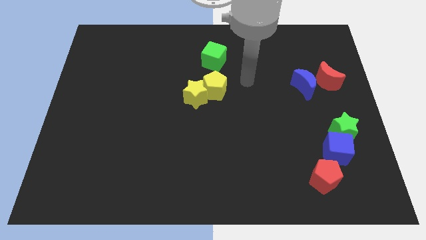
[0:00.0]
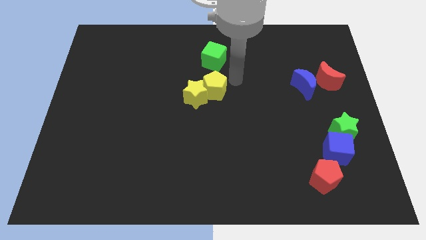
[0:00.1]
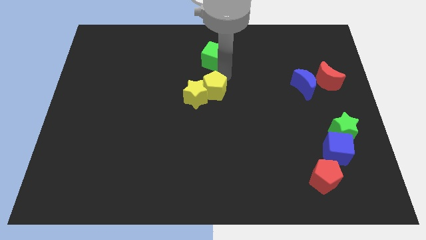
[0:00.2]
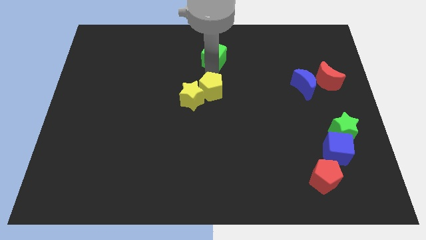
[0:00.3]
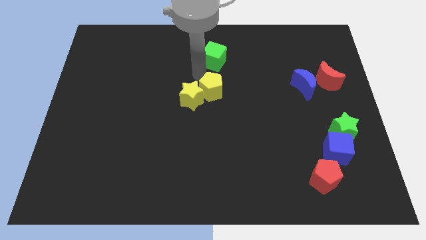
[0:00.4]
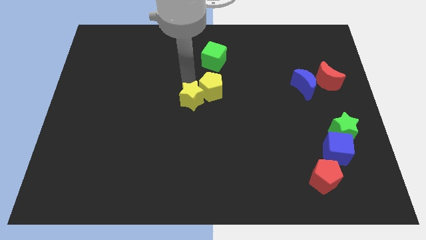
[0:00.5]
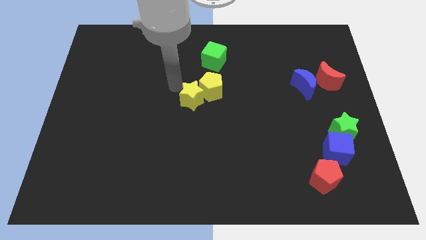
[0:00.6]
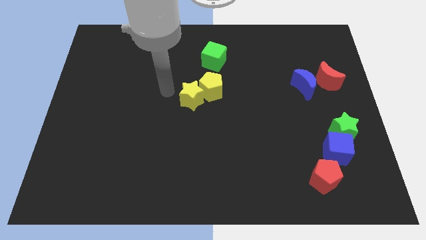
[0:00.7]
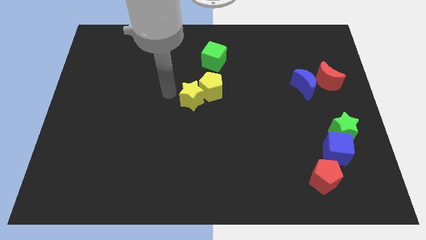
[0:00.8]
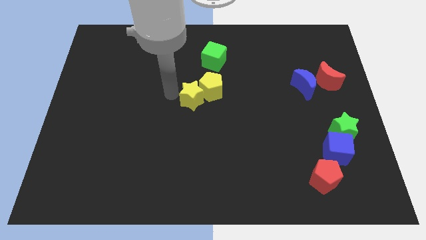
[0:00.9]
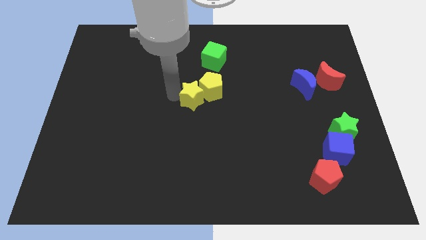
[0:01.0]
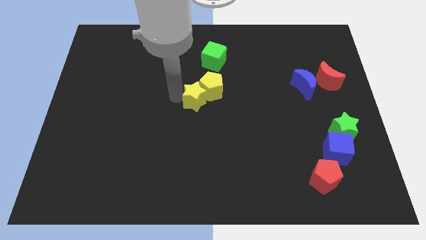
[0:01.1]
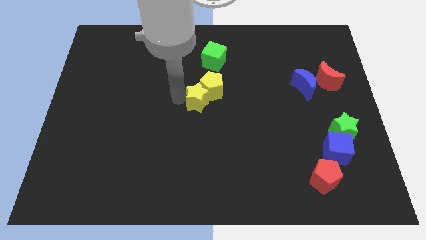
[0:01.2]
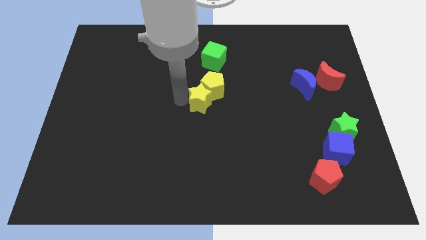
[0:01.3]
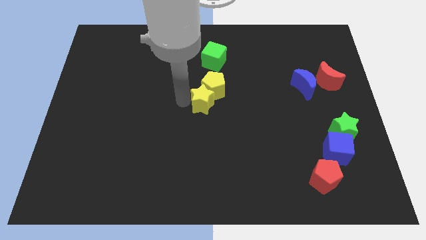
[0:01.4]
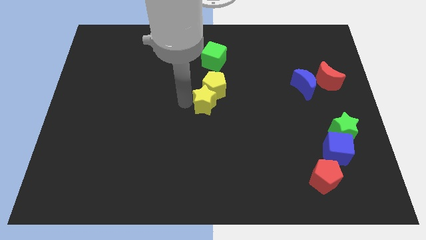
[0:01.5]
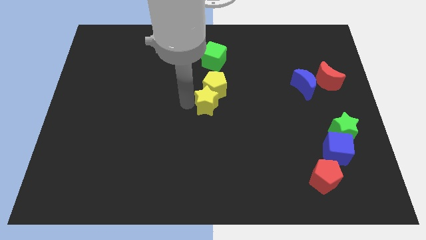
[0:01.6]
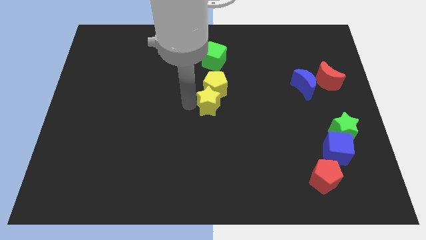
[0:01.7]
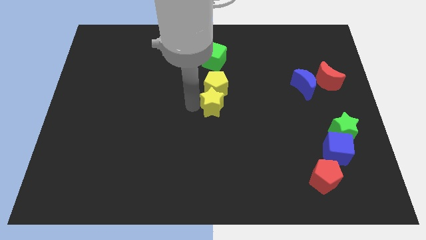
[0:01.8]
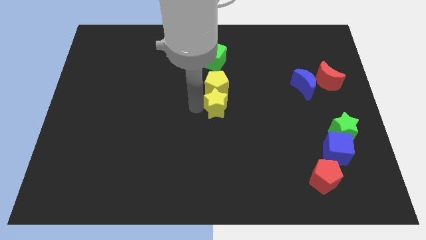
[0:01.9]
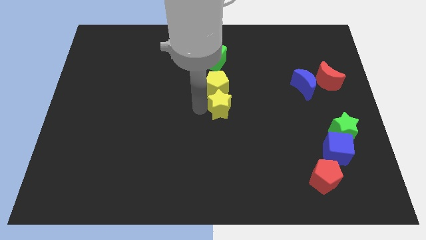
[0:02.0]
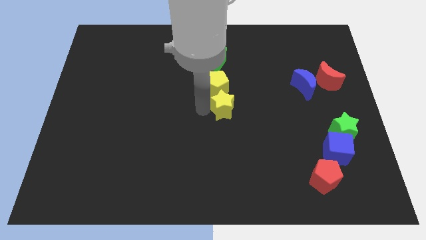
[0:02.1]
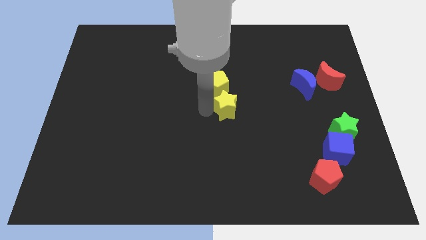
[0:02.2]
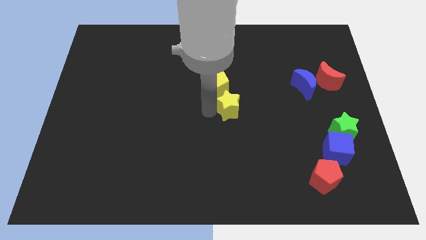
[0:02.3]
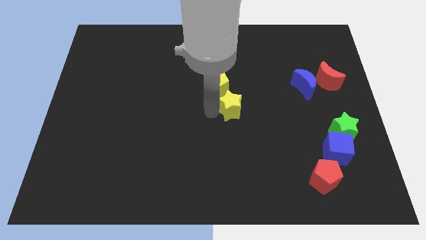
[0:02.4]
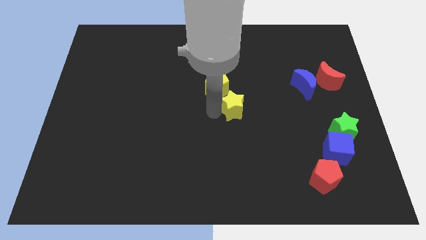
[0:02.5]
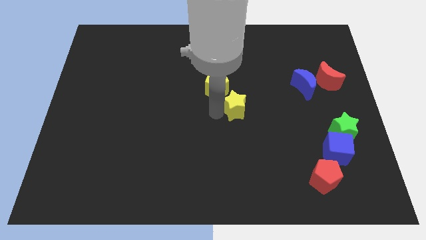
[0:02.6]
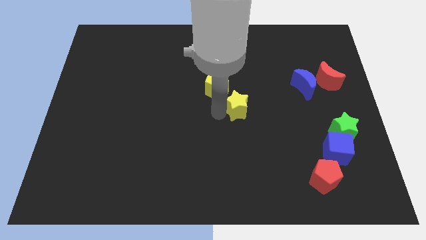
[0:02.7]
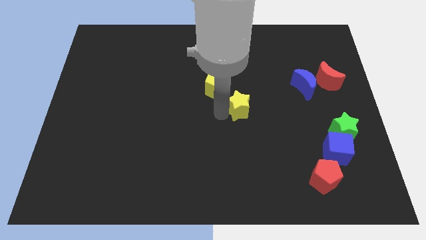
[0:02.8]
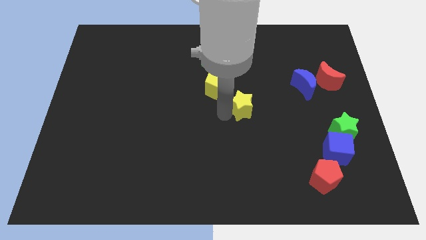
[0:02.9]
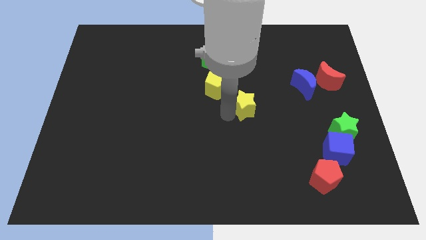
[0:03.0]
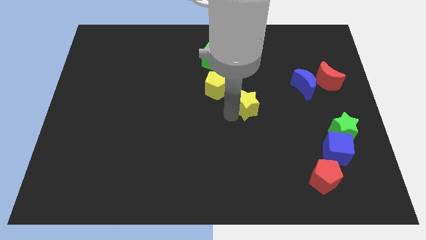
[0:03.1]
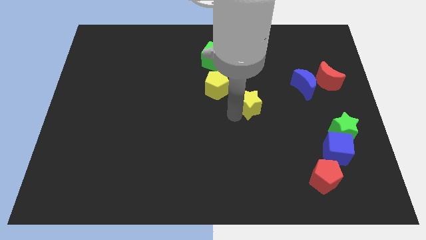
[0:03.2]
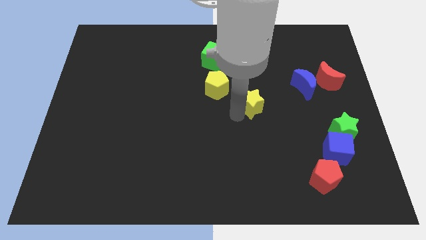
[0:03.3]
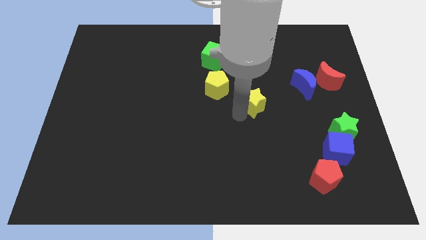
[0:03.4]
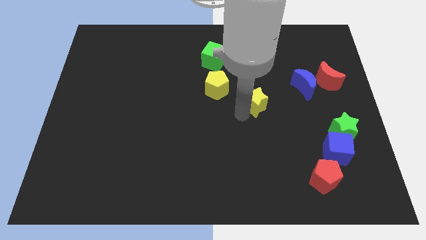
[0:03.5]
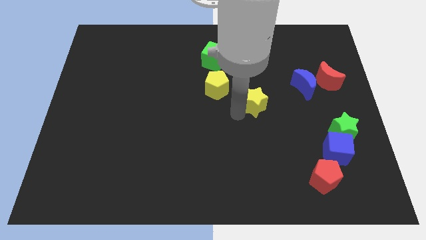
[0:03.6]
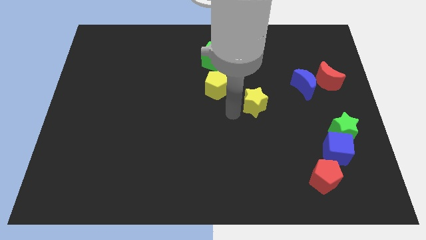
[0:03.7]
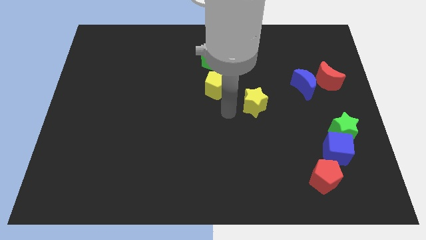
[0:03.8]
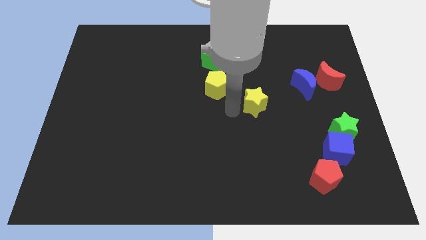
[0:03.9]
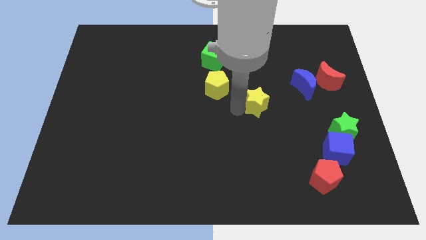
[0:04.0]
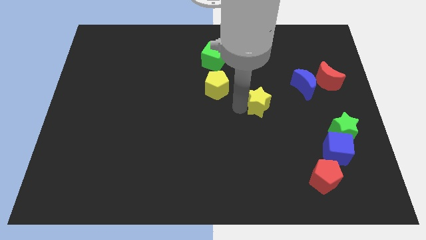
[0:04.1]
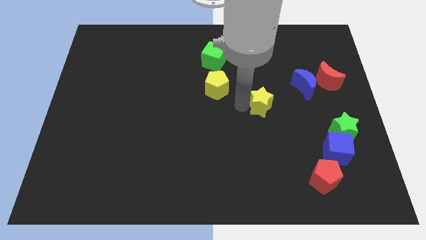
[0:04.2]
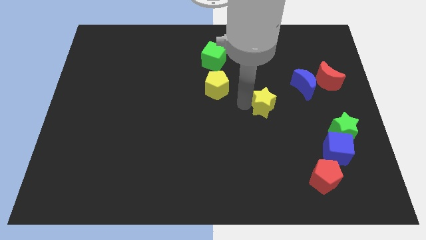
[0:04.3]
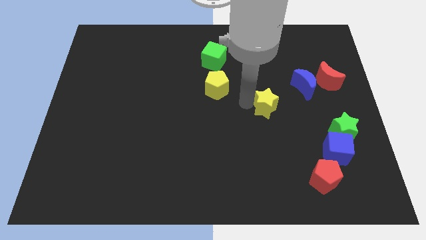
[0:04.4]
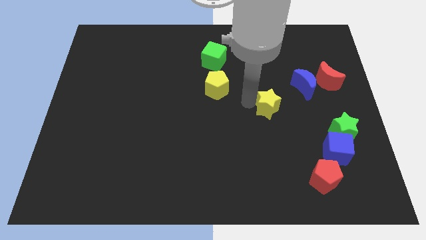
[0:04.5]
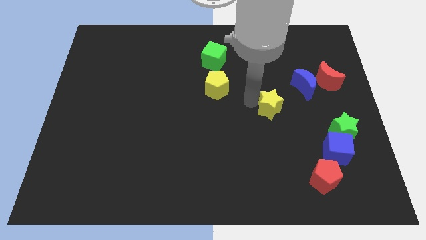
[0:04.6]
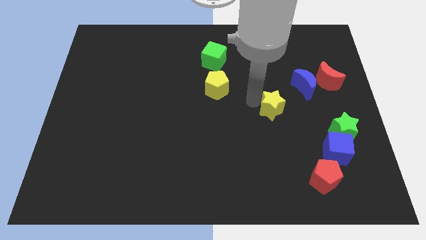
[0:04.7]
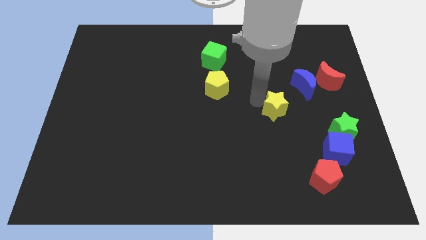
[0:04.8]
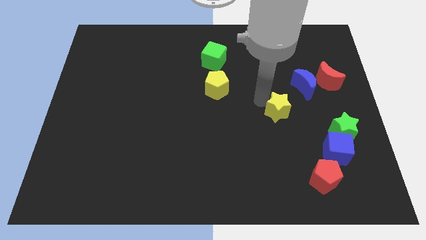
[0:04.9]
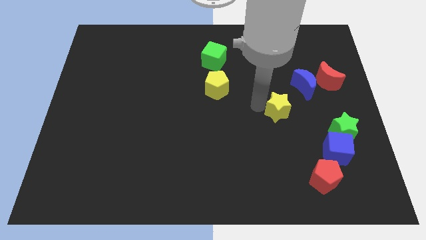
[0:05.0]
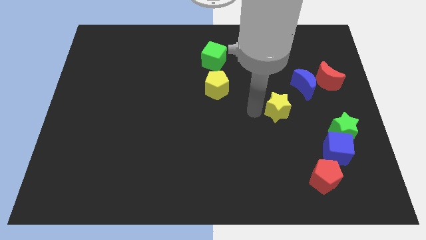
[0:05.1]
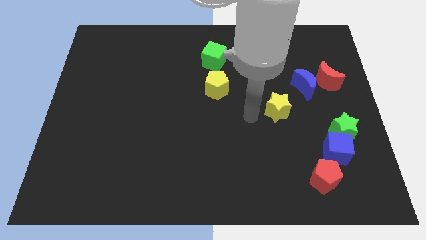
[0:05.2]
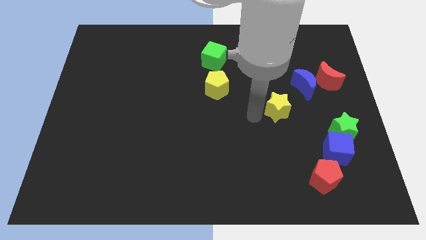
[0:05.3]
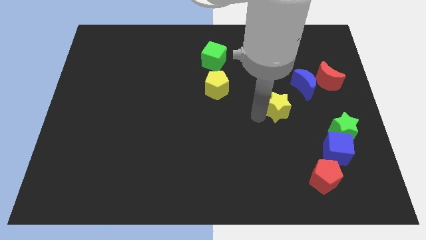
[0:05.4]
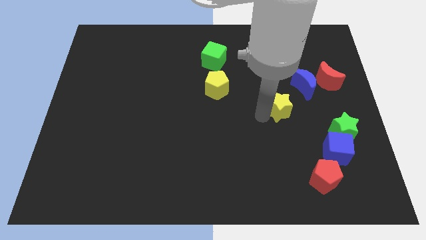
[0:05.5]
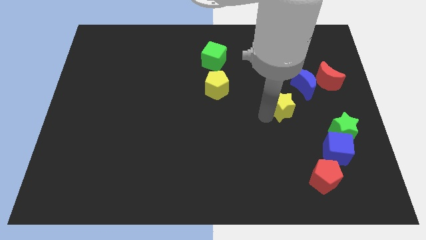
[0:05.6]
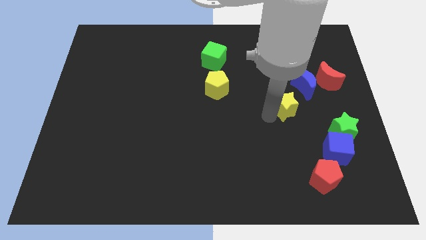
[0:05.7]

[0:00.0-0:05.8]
push the yellow star to the right

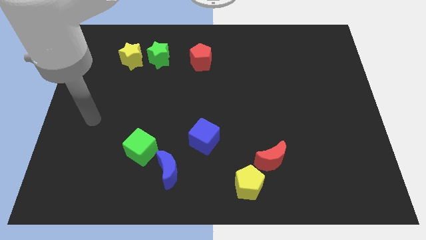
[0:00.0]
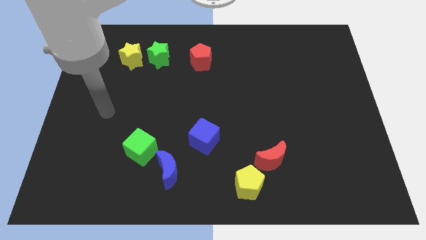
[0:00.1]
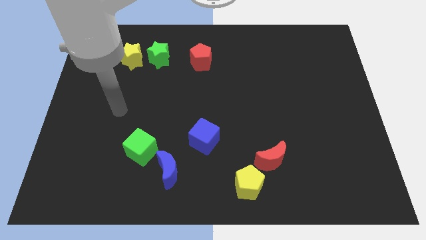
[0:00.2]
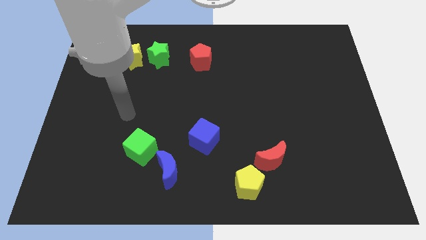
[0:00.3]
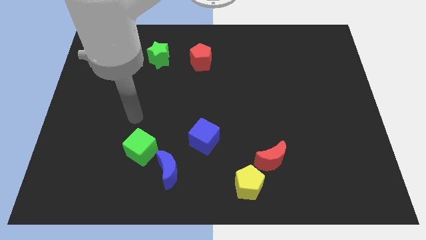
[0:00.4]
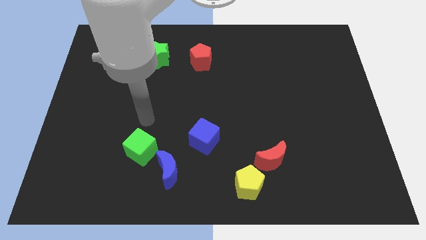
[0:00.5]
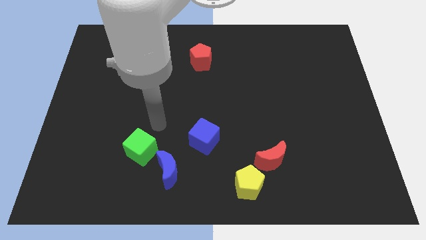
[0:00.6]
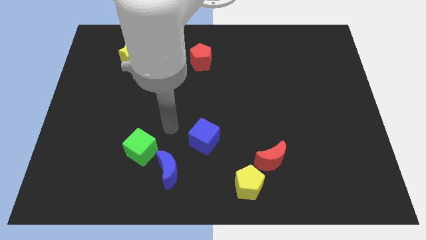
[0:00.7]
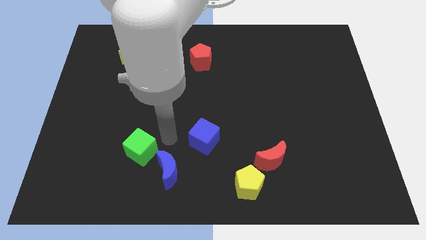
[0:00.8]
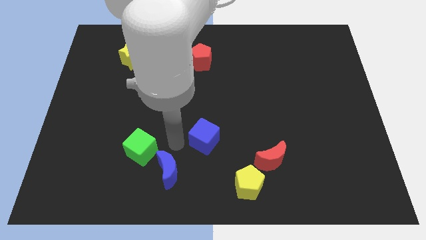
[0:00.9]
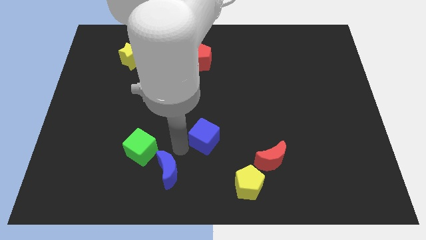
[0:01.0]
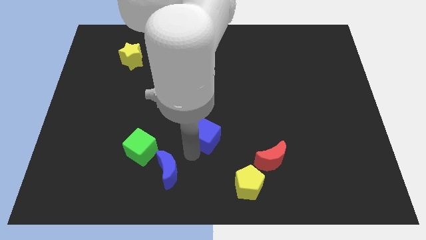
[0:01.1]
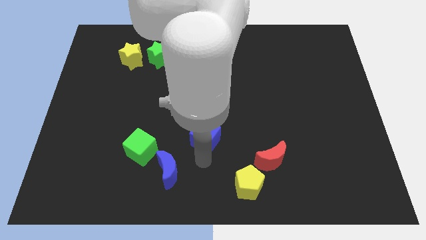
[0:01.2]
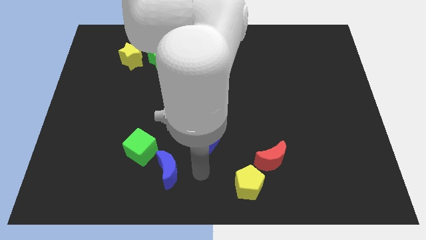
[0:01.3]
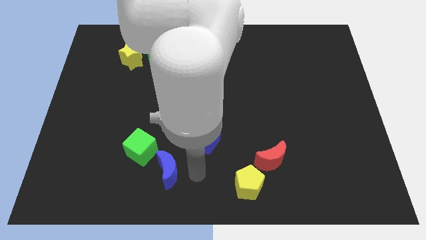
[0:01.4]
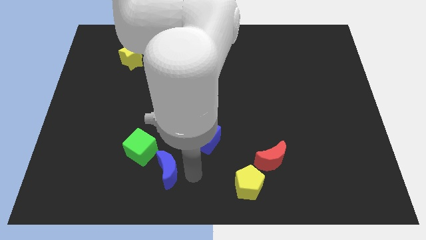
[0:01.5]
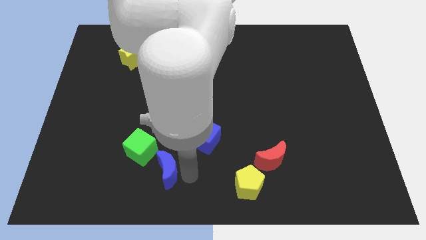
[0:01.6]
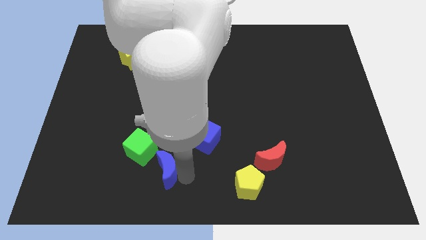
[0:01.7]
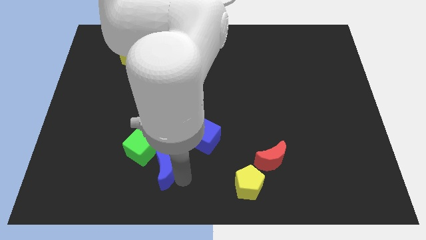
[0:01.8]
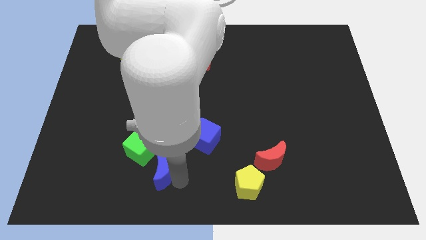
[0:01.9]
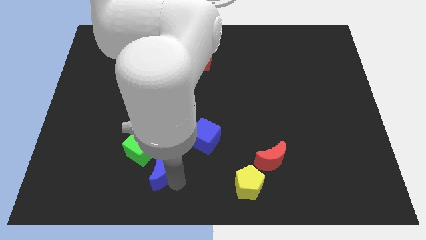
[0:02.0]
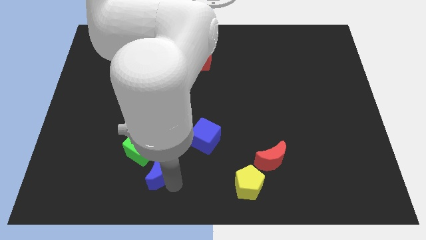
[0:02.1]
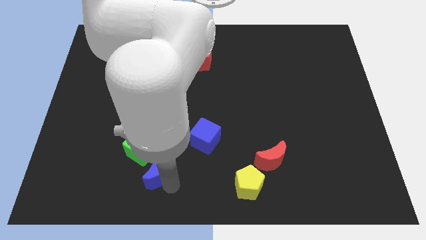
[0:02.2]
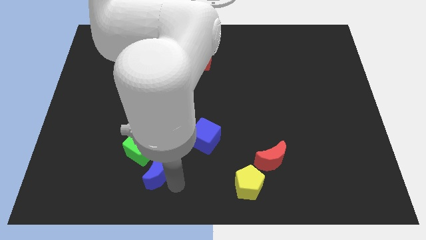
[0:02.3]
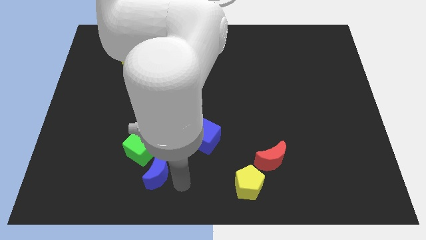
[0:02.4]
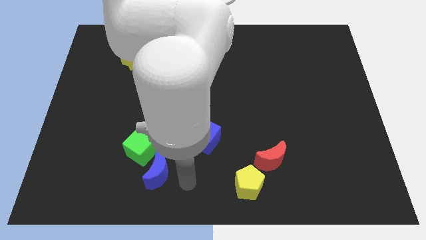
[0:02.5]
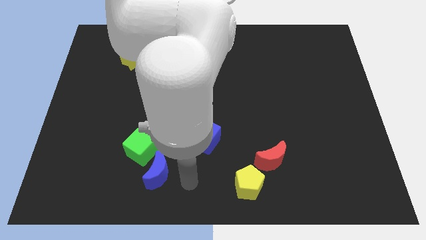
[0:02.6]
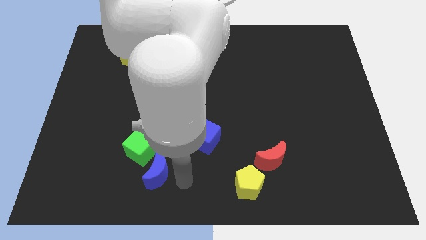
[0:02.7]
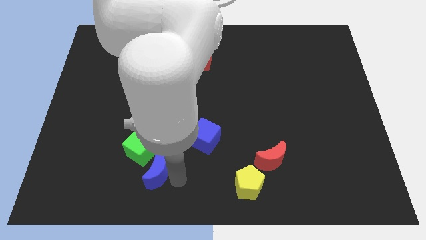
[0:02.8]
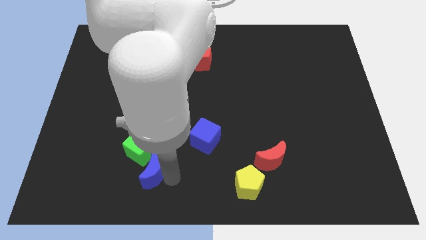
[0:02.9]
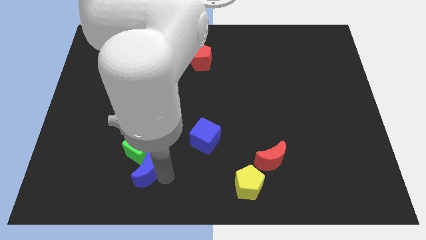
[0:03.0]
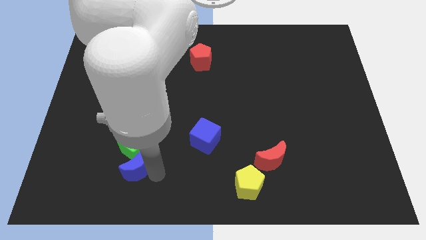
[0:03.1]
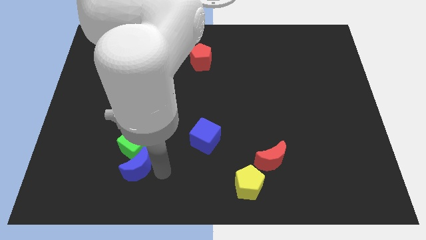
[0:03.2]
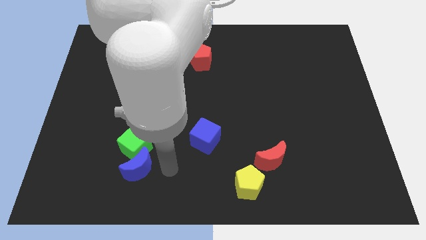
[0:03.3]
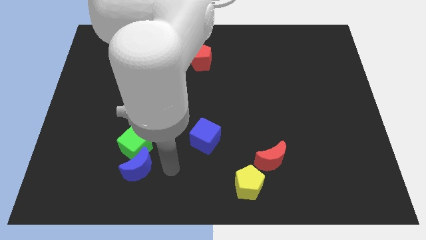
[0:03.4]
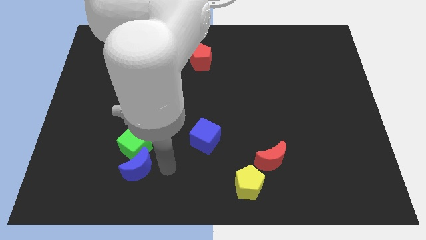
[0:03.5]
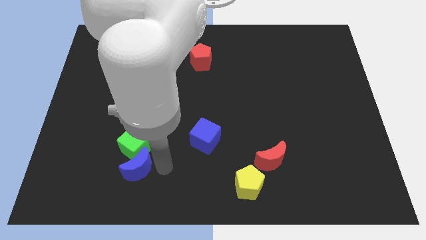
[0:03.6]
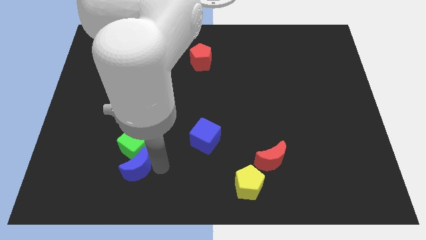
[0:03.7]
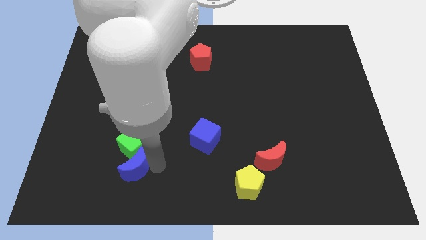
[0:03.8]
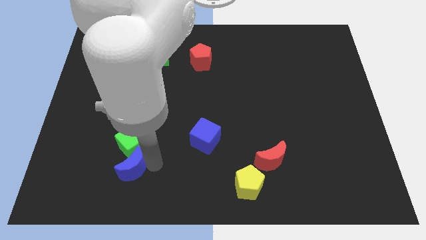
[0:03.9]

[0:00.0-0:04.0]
slightly slide the blue moon to the left
